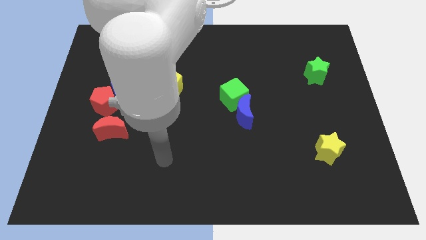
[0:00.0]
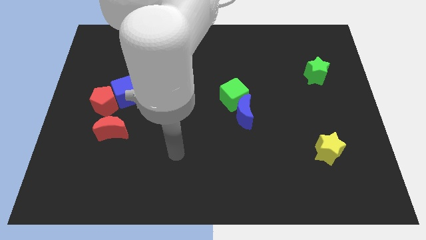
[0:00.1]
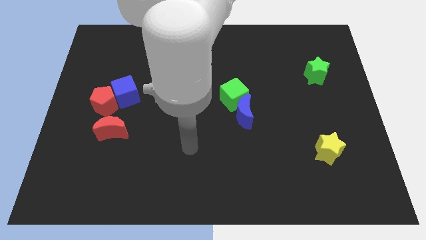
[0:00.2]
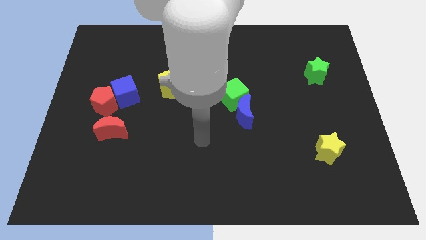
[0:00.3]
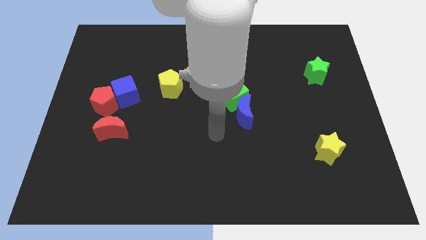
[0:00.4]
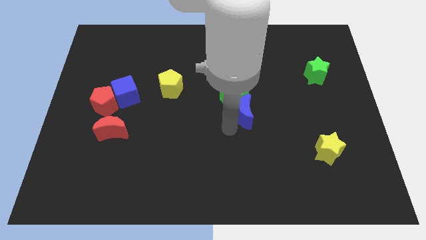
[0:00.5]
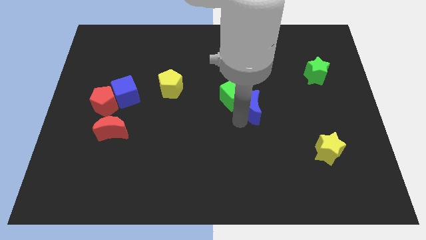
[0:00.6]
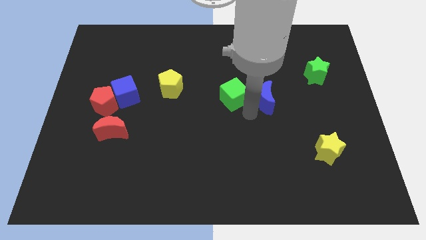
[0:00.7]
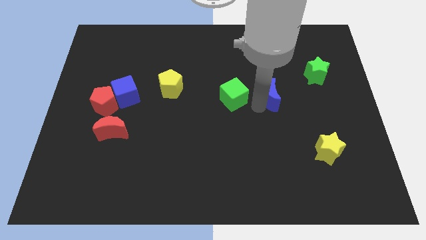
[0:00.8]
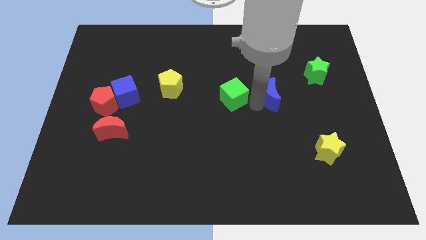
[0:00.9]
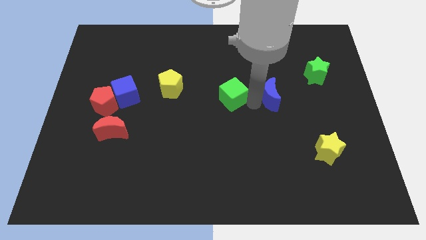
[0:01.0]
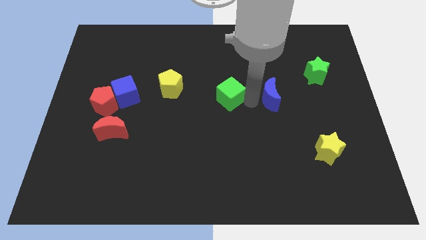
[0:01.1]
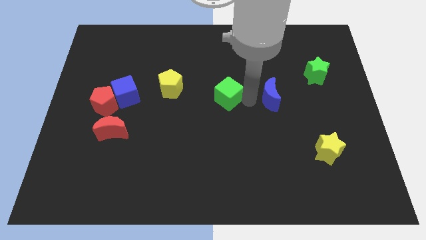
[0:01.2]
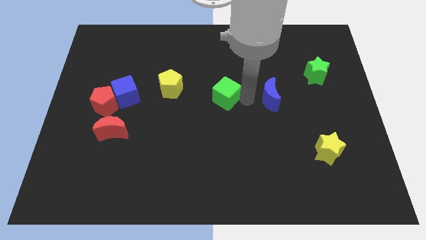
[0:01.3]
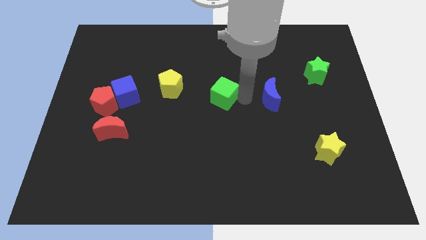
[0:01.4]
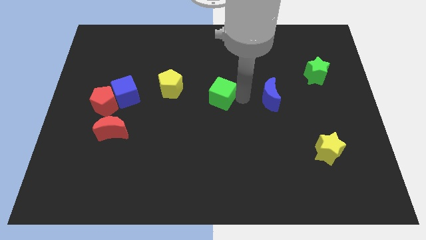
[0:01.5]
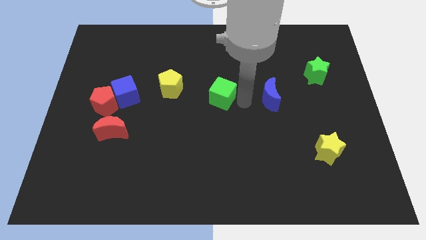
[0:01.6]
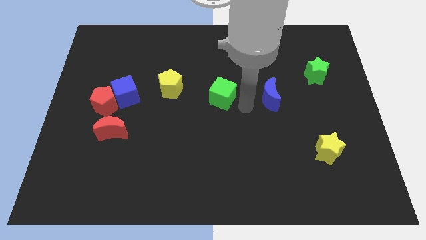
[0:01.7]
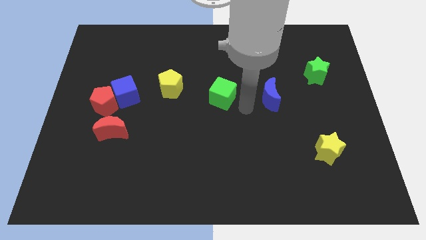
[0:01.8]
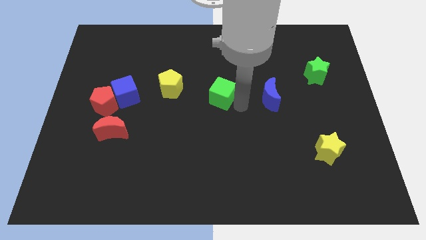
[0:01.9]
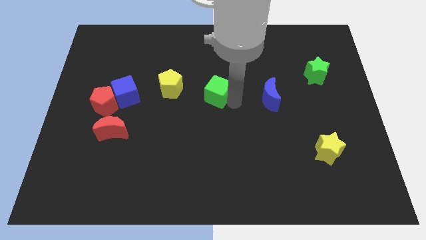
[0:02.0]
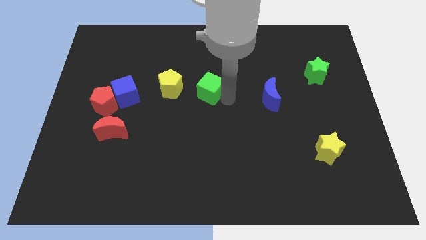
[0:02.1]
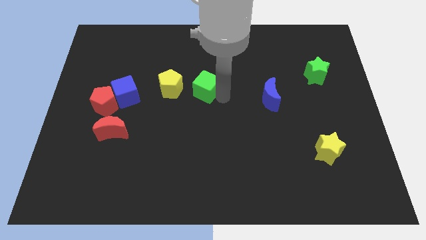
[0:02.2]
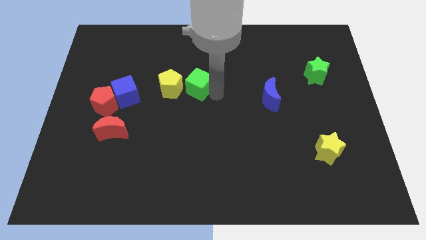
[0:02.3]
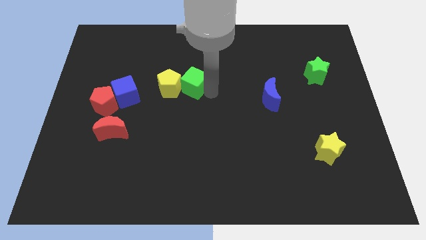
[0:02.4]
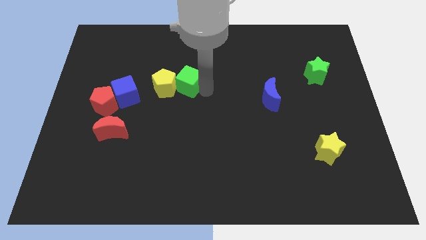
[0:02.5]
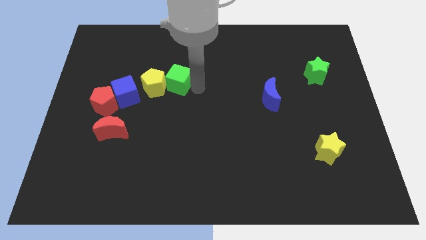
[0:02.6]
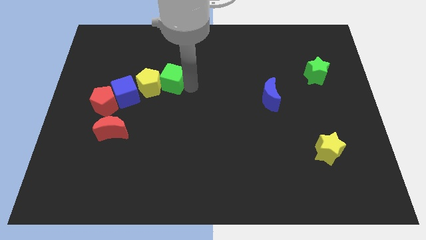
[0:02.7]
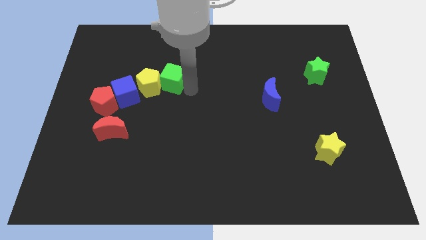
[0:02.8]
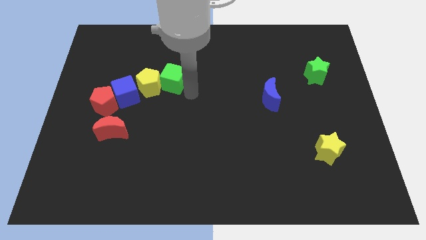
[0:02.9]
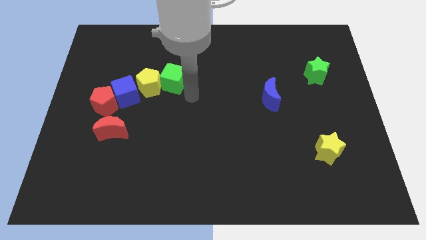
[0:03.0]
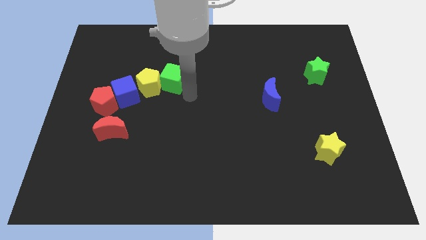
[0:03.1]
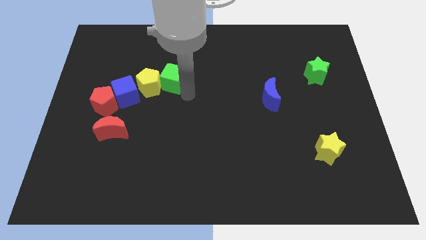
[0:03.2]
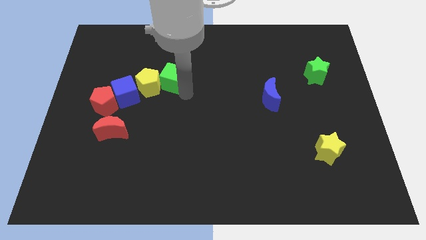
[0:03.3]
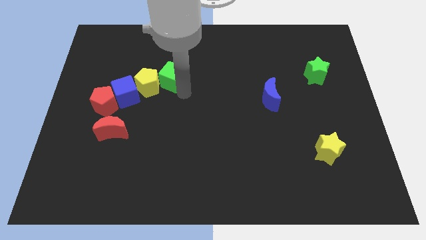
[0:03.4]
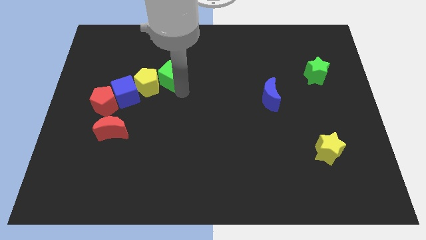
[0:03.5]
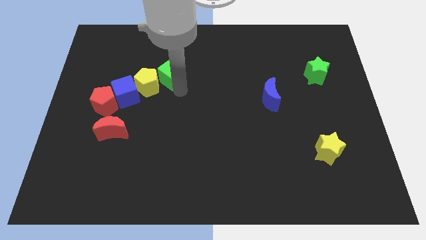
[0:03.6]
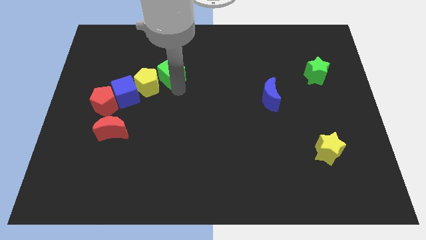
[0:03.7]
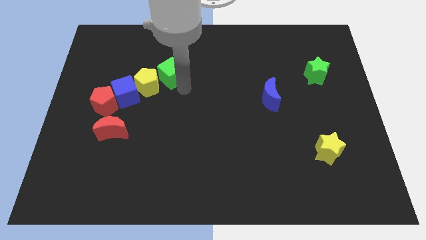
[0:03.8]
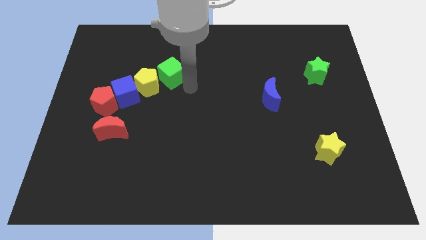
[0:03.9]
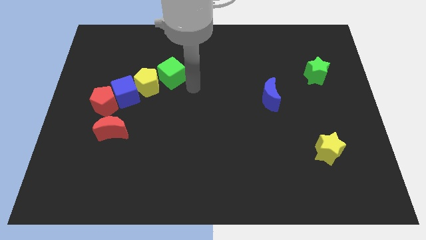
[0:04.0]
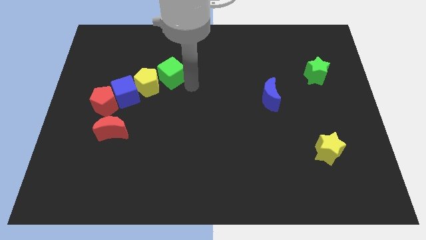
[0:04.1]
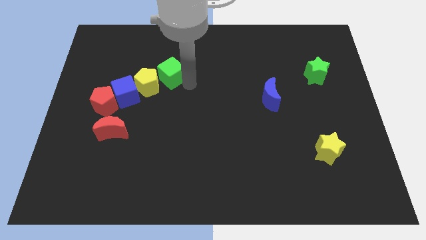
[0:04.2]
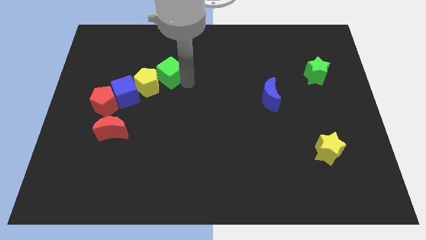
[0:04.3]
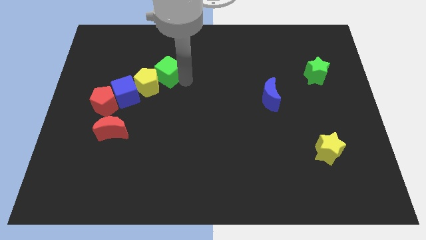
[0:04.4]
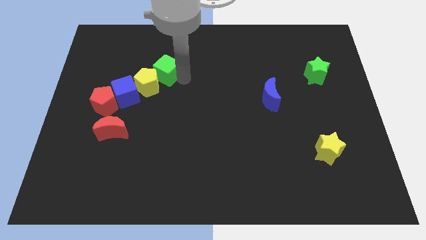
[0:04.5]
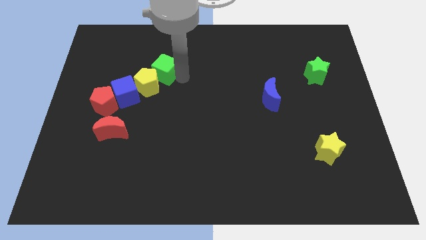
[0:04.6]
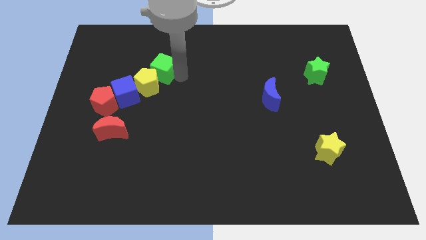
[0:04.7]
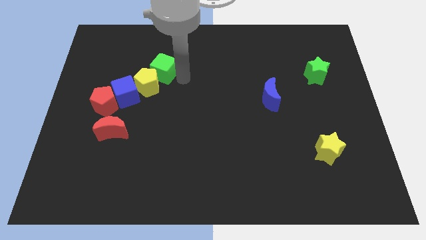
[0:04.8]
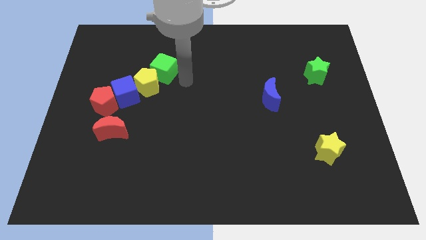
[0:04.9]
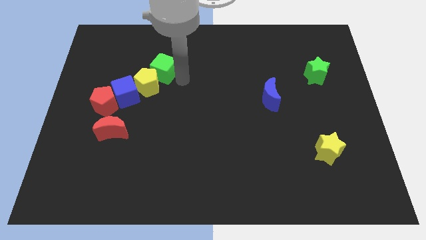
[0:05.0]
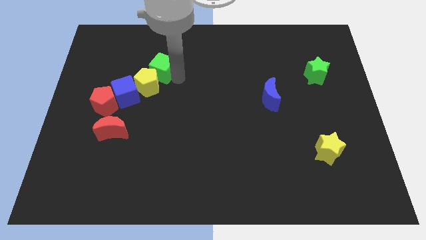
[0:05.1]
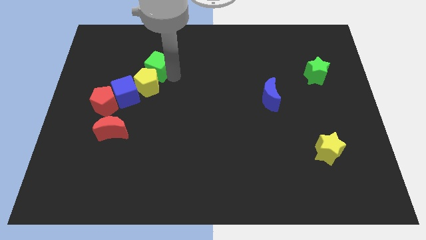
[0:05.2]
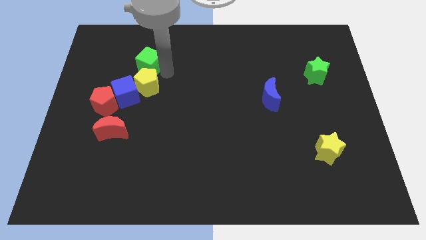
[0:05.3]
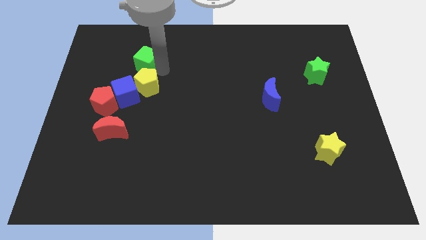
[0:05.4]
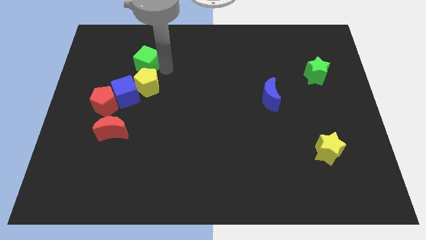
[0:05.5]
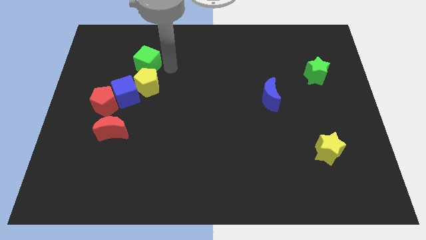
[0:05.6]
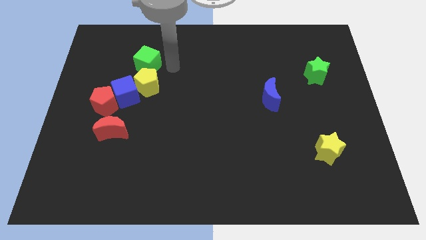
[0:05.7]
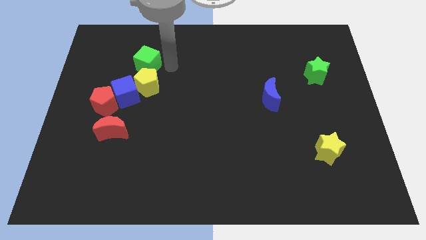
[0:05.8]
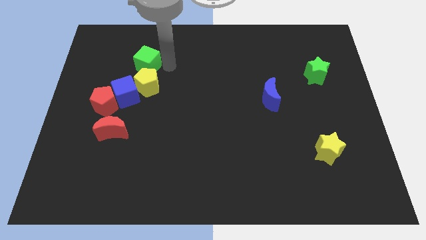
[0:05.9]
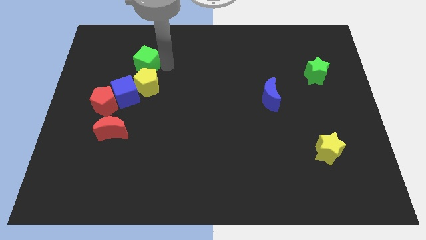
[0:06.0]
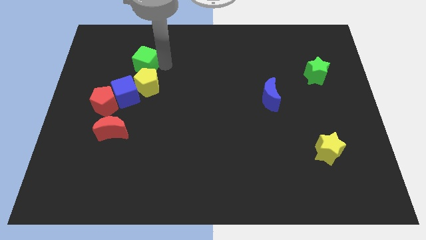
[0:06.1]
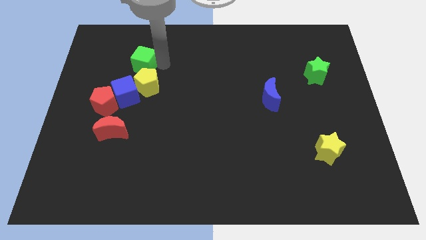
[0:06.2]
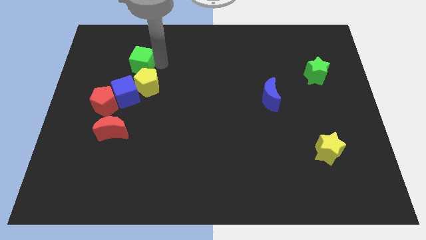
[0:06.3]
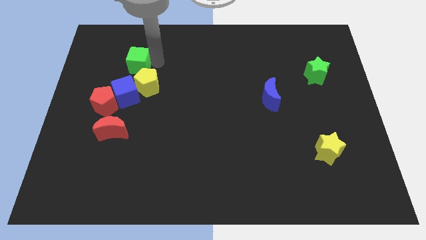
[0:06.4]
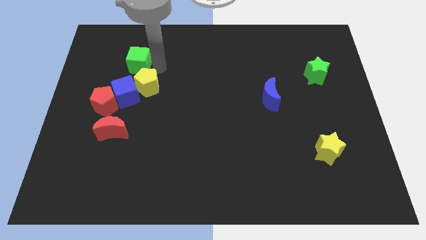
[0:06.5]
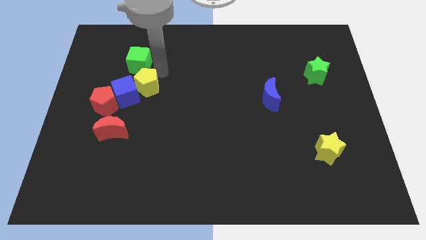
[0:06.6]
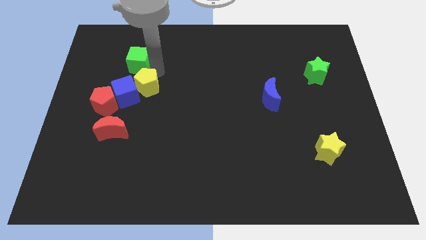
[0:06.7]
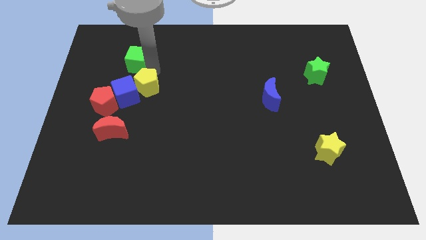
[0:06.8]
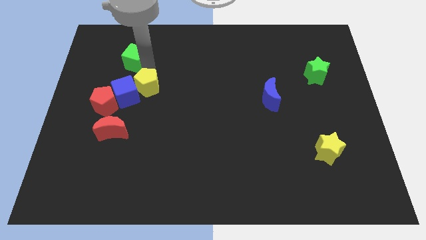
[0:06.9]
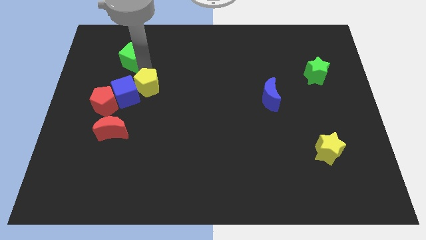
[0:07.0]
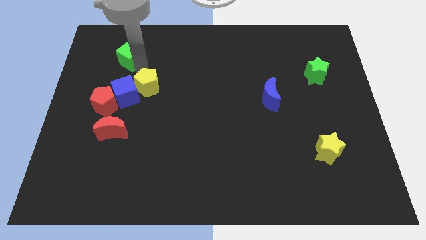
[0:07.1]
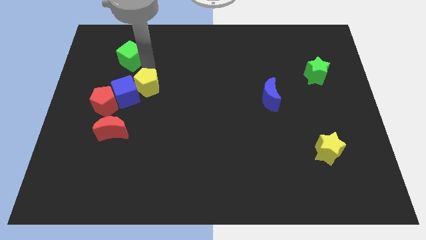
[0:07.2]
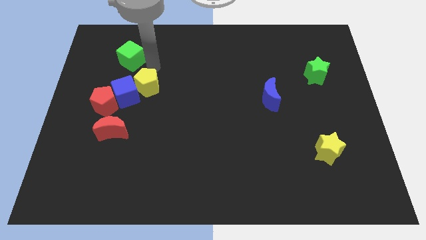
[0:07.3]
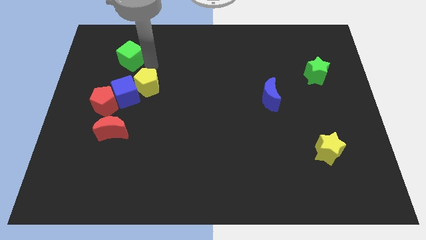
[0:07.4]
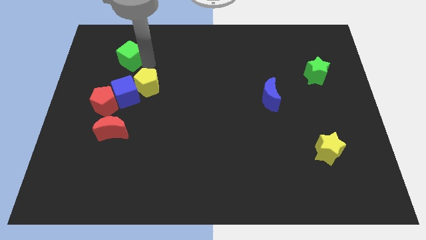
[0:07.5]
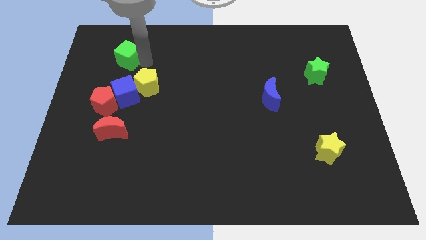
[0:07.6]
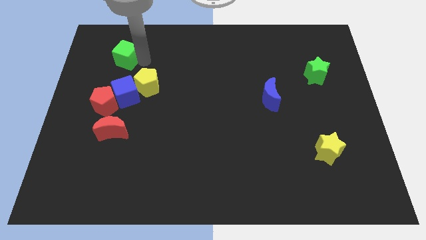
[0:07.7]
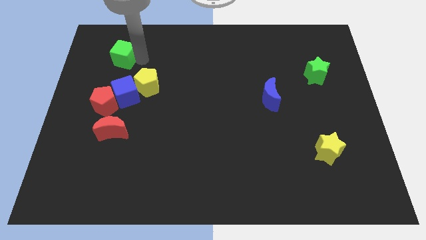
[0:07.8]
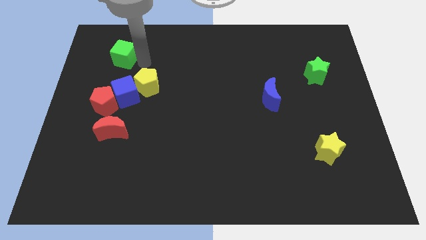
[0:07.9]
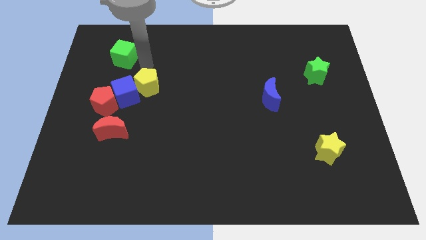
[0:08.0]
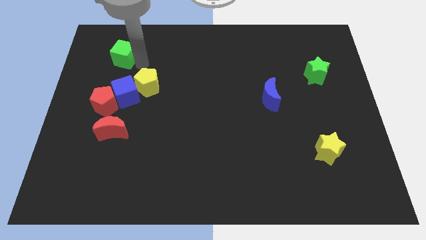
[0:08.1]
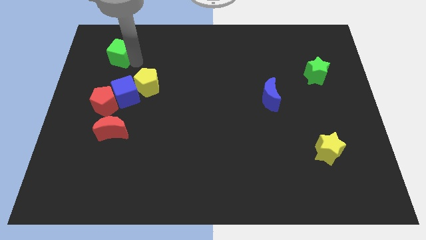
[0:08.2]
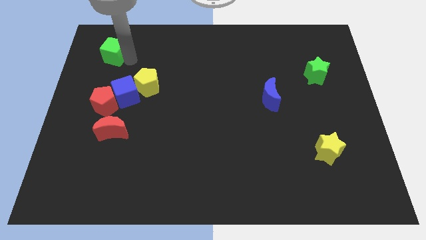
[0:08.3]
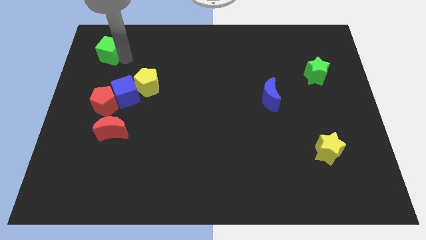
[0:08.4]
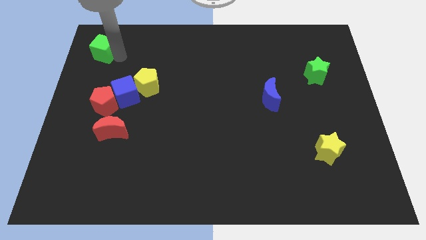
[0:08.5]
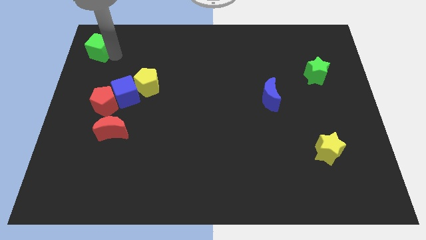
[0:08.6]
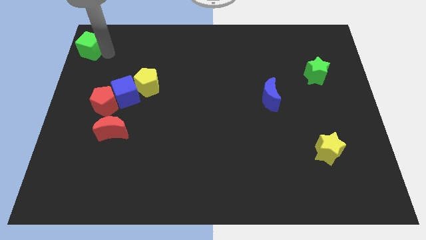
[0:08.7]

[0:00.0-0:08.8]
put the green cube to the upper left corner
